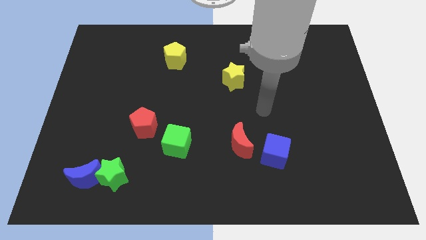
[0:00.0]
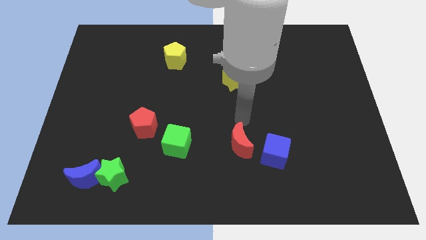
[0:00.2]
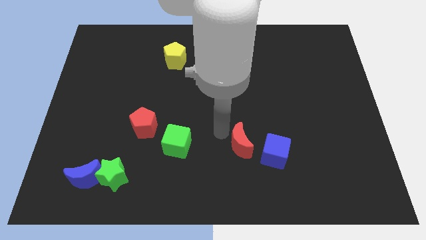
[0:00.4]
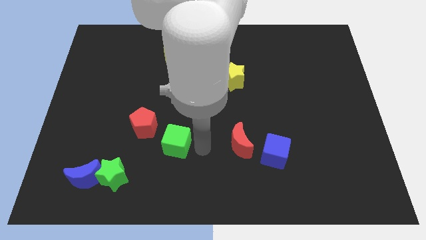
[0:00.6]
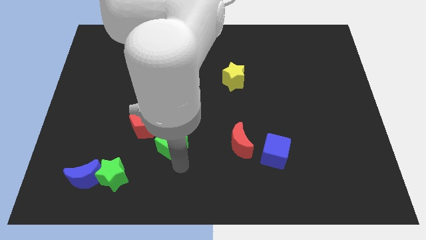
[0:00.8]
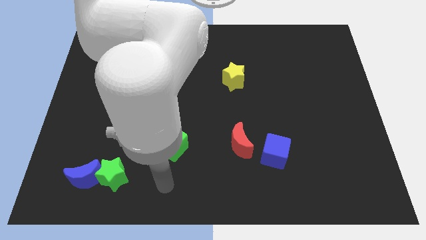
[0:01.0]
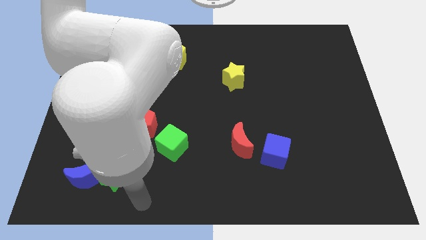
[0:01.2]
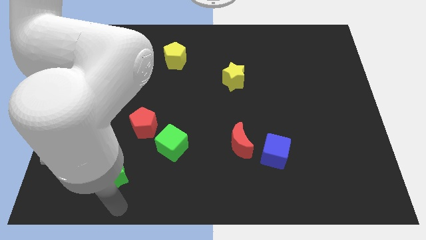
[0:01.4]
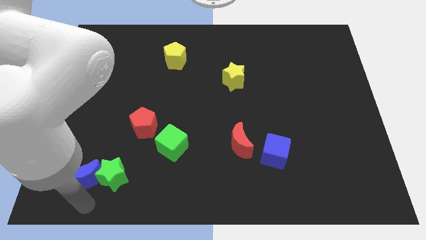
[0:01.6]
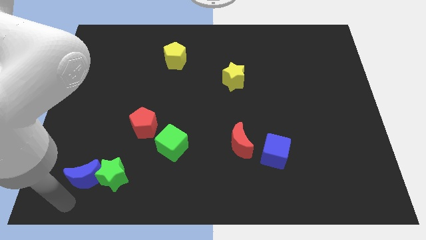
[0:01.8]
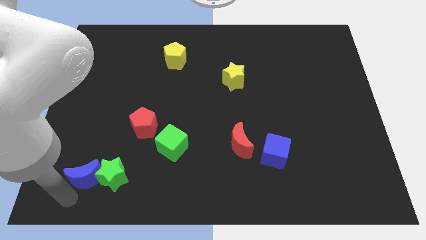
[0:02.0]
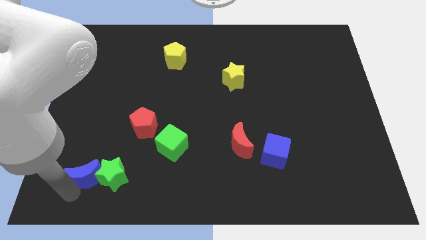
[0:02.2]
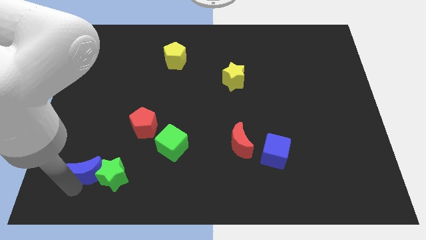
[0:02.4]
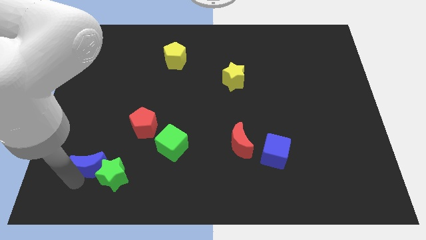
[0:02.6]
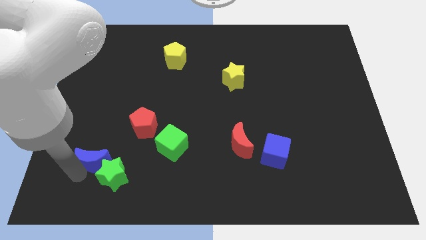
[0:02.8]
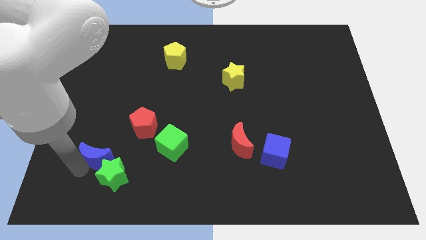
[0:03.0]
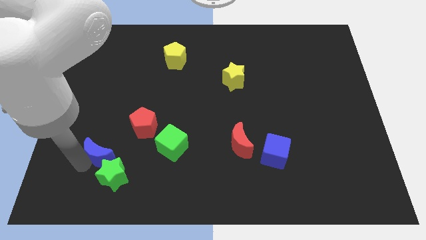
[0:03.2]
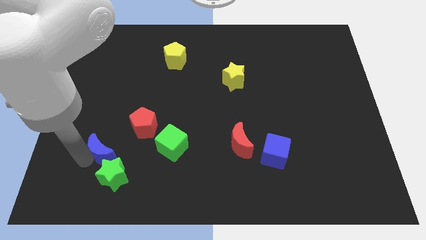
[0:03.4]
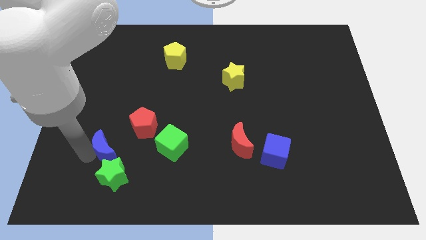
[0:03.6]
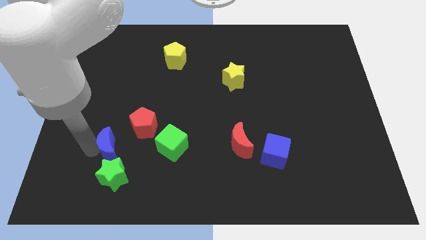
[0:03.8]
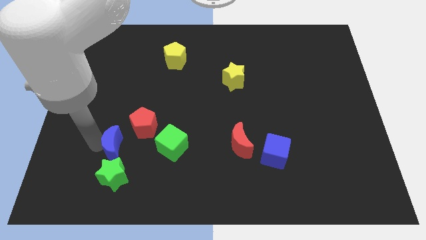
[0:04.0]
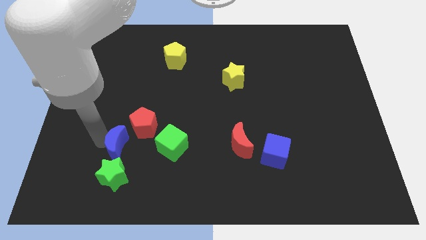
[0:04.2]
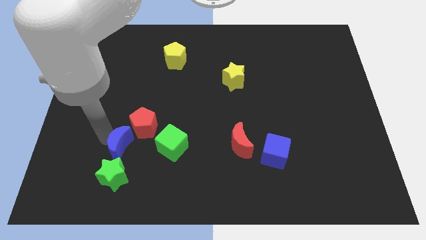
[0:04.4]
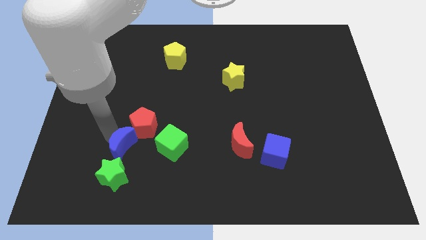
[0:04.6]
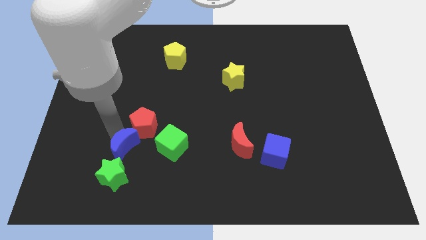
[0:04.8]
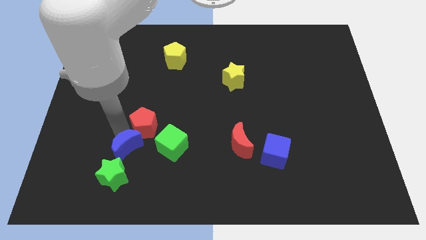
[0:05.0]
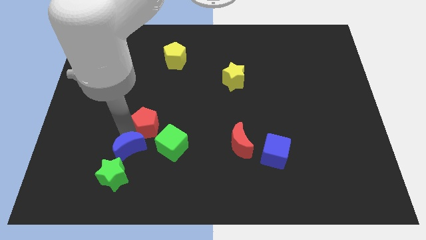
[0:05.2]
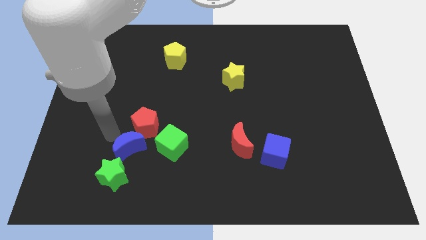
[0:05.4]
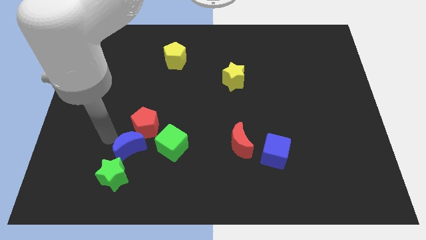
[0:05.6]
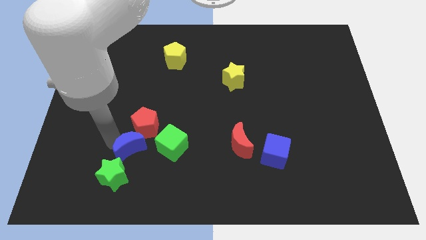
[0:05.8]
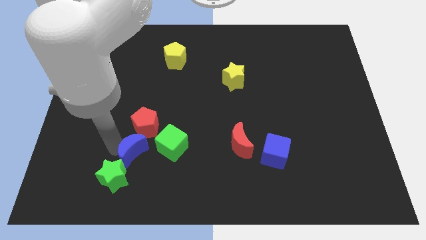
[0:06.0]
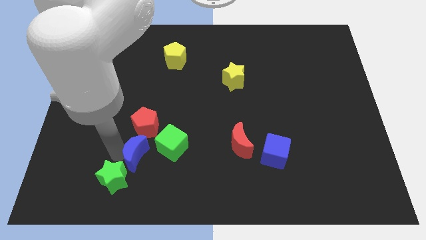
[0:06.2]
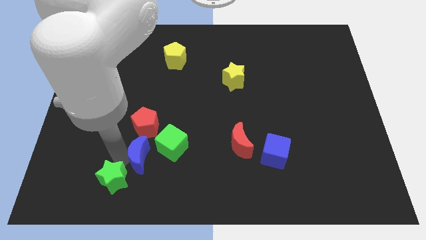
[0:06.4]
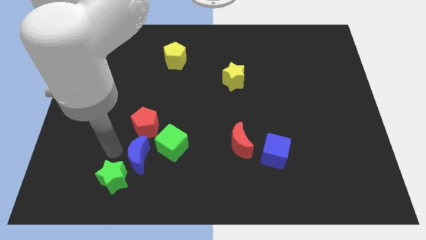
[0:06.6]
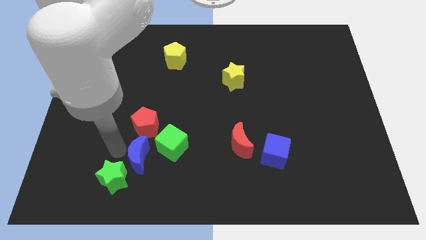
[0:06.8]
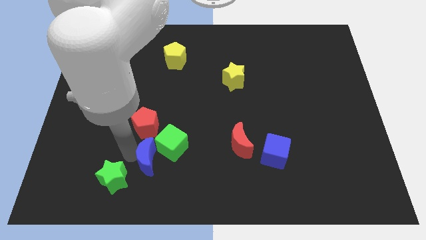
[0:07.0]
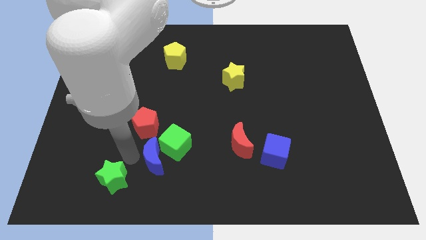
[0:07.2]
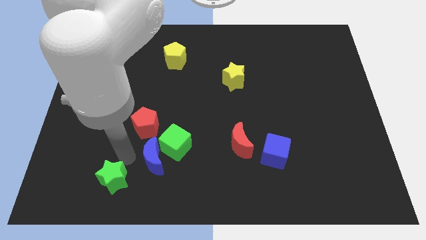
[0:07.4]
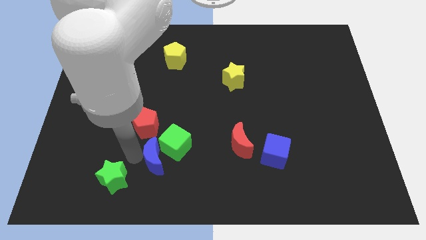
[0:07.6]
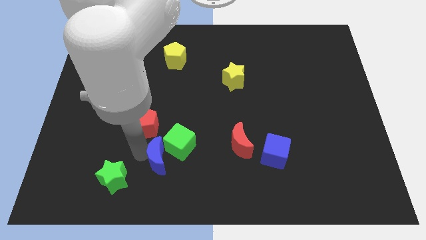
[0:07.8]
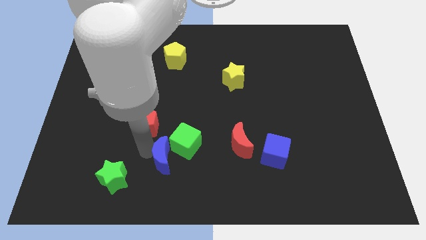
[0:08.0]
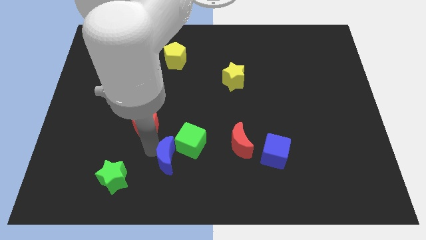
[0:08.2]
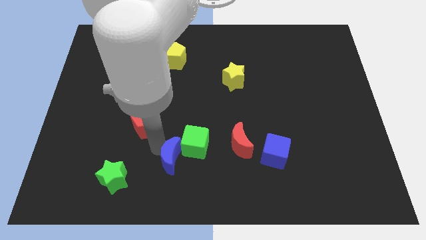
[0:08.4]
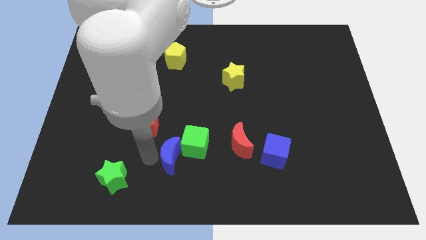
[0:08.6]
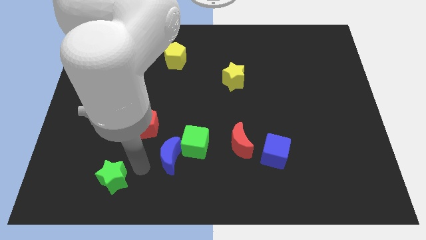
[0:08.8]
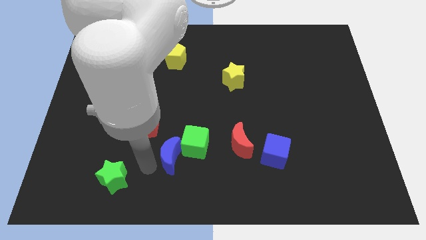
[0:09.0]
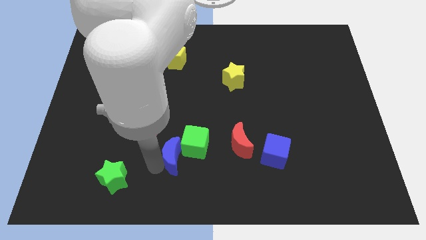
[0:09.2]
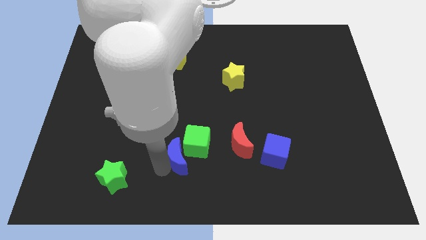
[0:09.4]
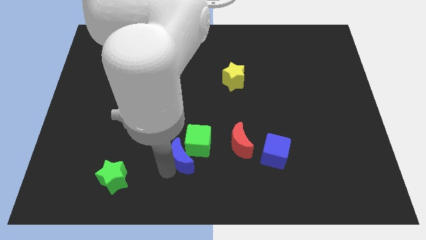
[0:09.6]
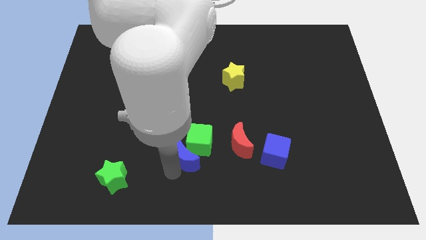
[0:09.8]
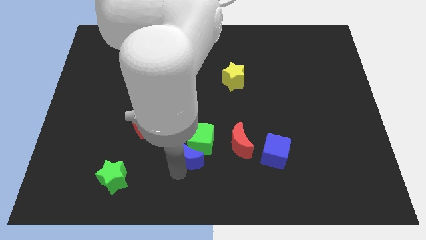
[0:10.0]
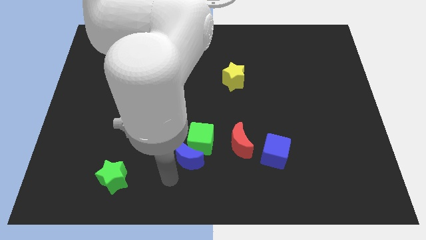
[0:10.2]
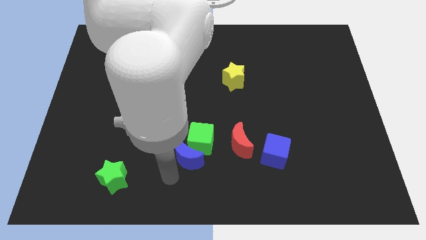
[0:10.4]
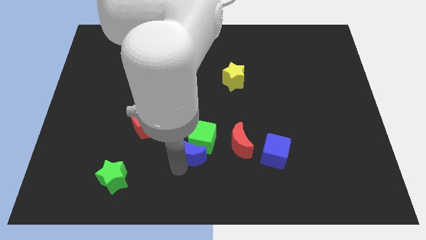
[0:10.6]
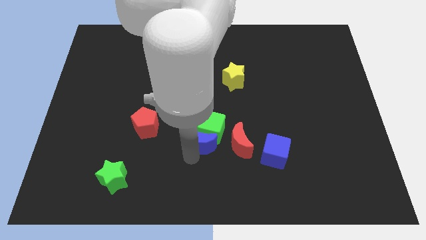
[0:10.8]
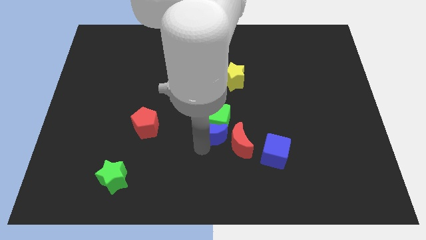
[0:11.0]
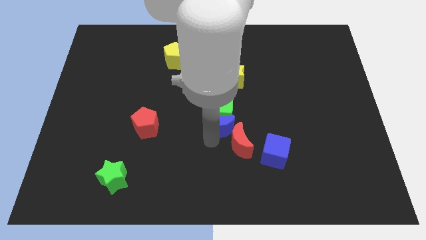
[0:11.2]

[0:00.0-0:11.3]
move the blue moon above the red moon

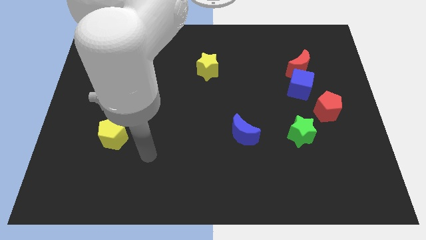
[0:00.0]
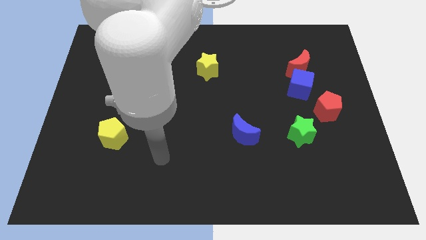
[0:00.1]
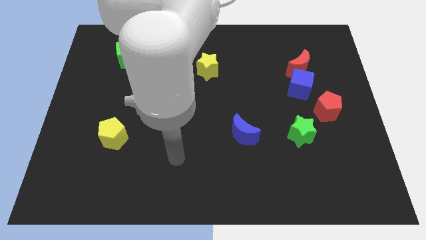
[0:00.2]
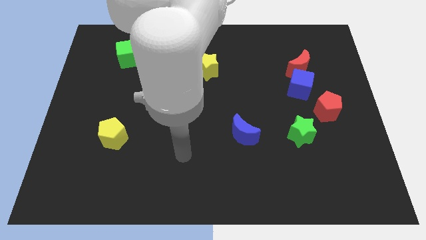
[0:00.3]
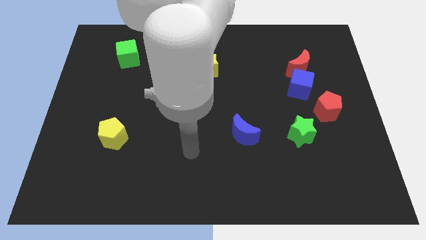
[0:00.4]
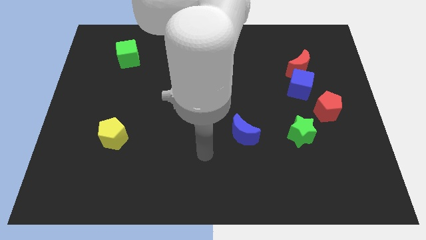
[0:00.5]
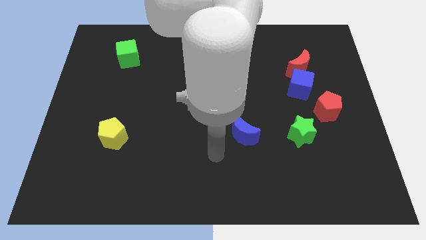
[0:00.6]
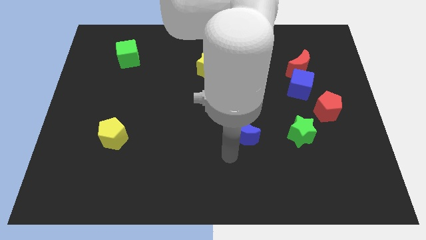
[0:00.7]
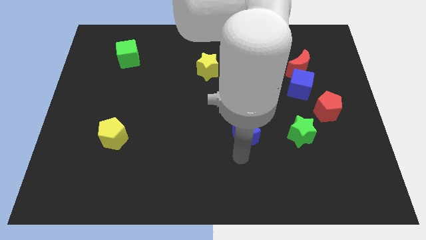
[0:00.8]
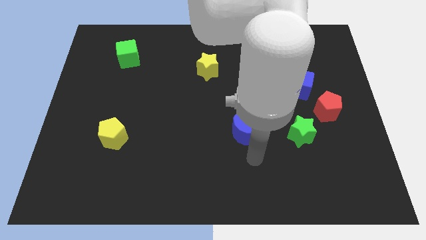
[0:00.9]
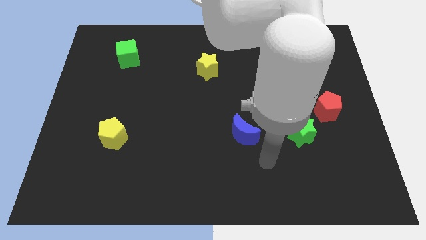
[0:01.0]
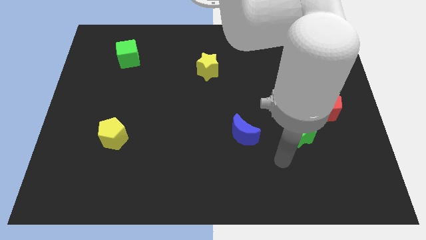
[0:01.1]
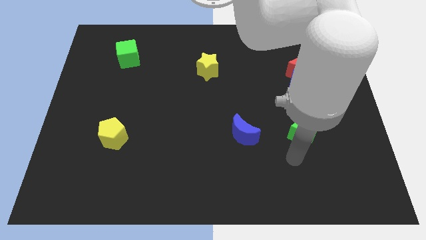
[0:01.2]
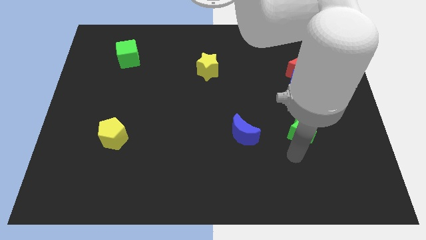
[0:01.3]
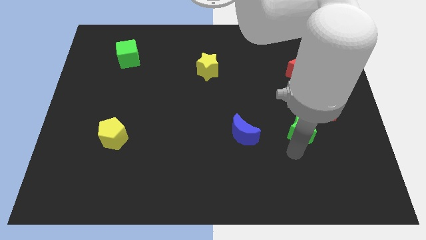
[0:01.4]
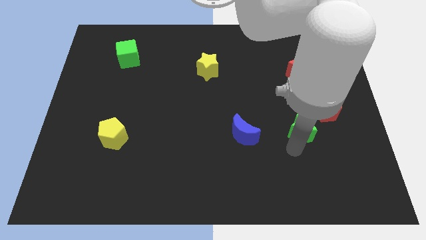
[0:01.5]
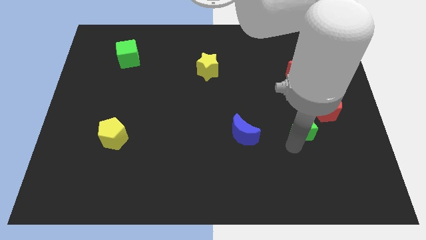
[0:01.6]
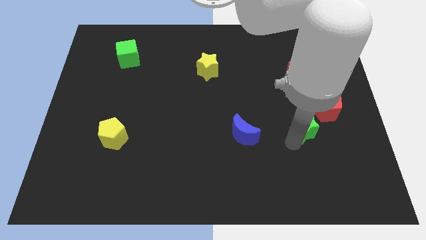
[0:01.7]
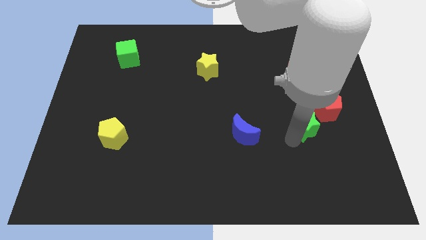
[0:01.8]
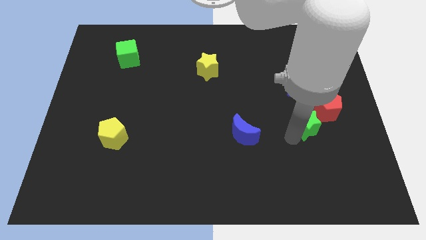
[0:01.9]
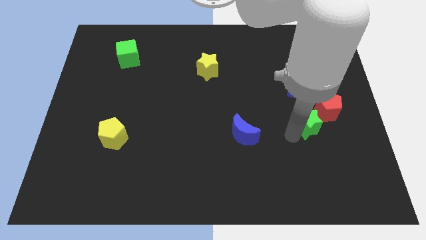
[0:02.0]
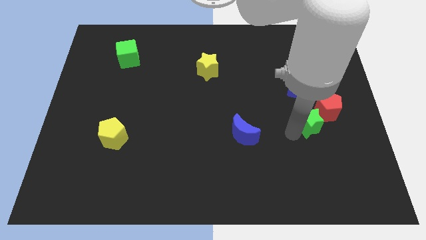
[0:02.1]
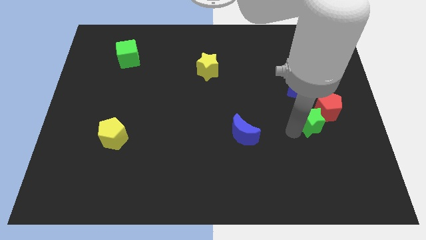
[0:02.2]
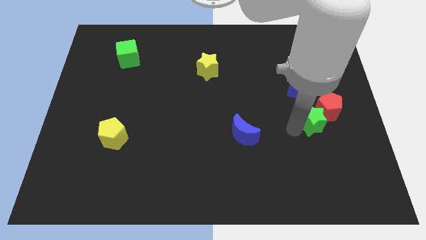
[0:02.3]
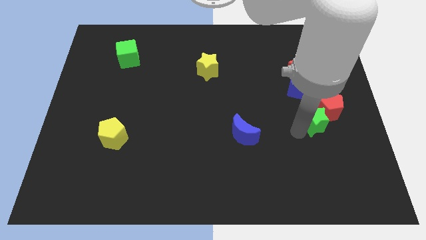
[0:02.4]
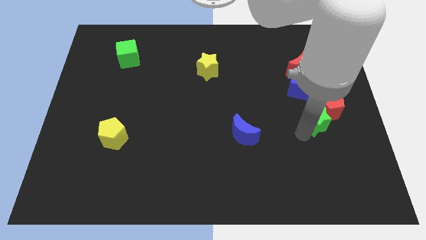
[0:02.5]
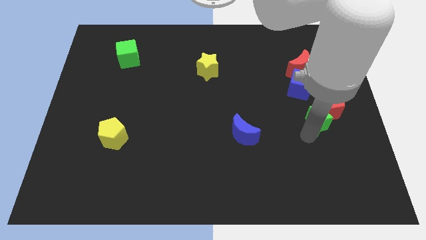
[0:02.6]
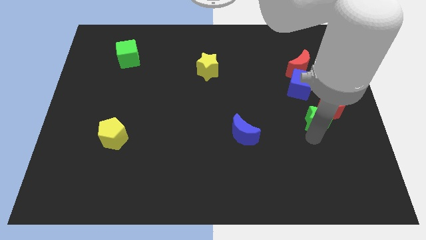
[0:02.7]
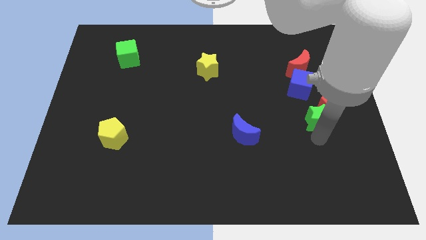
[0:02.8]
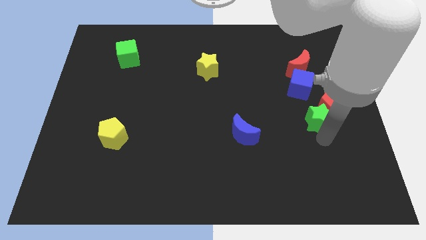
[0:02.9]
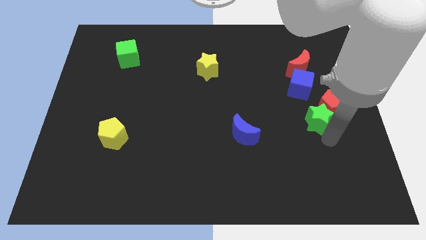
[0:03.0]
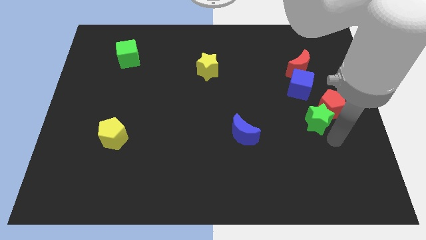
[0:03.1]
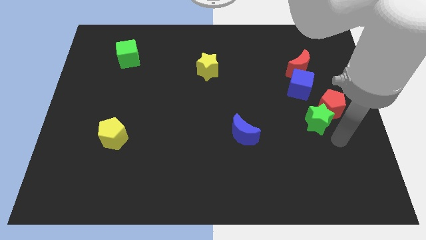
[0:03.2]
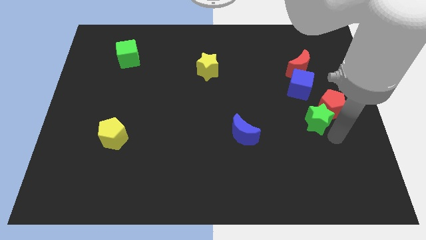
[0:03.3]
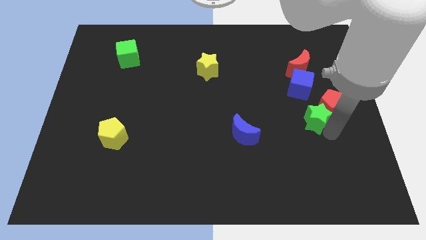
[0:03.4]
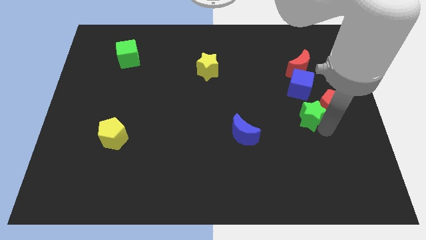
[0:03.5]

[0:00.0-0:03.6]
slide the green star to the bottom of the red moon
